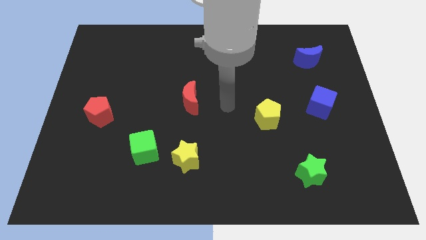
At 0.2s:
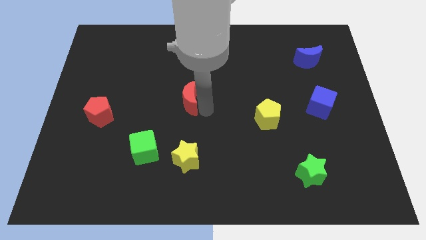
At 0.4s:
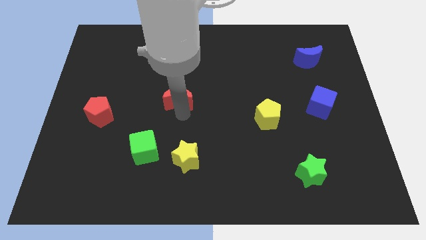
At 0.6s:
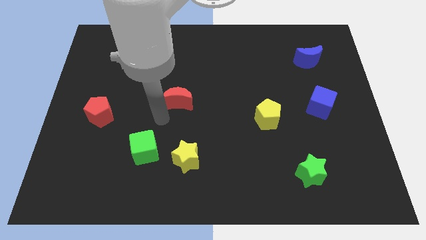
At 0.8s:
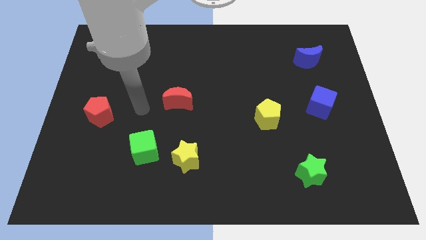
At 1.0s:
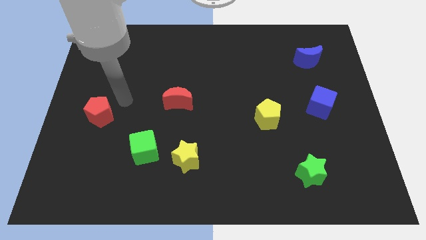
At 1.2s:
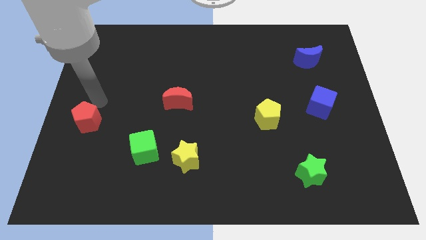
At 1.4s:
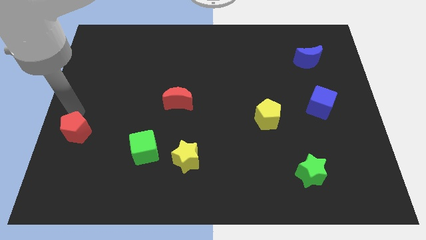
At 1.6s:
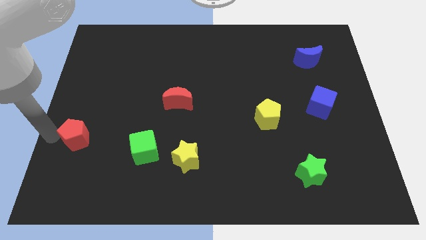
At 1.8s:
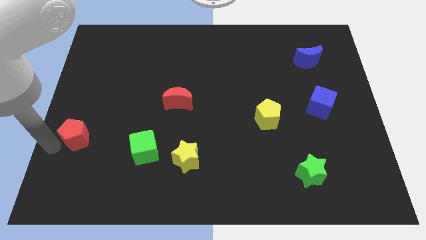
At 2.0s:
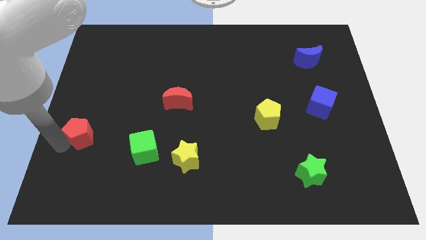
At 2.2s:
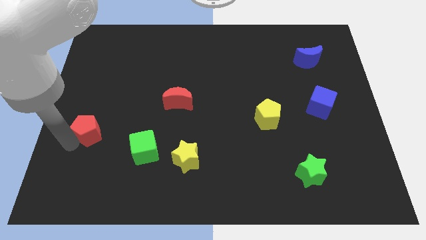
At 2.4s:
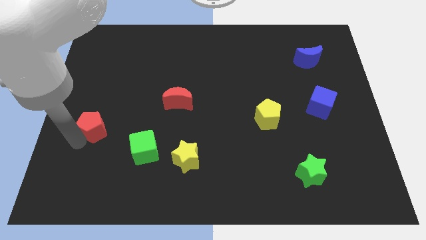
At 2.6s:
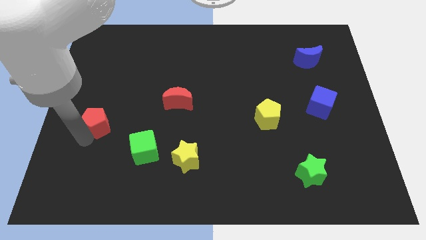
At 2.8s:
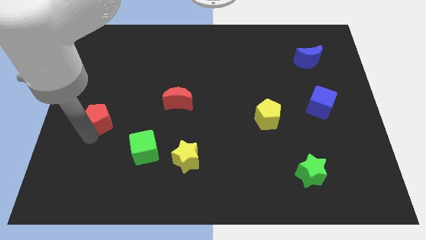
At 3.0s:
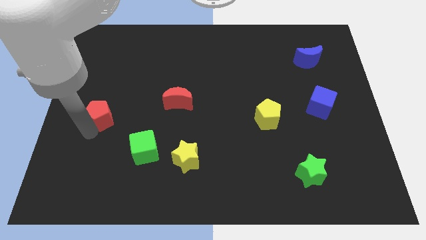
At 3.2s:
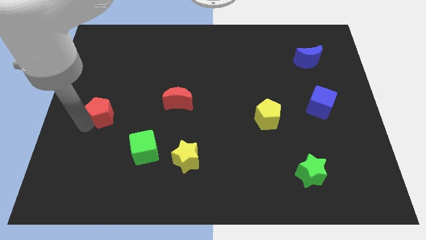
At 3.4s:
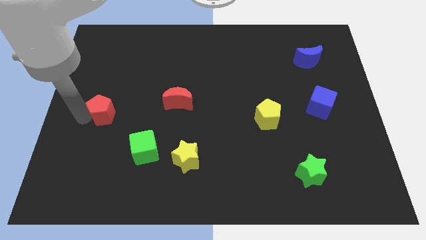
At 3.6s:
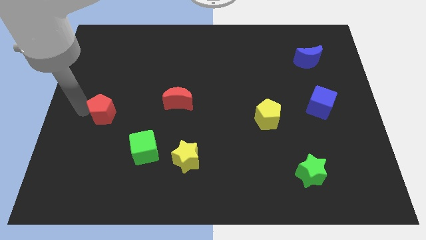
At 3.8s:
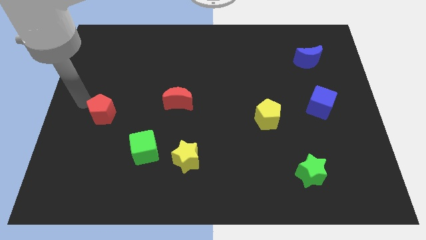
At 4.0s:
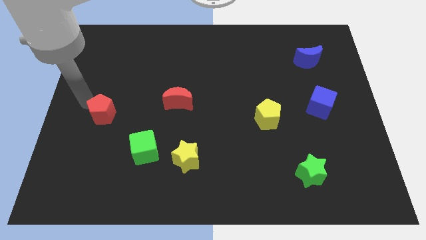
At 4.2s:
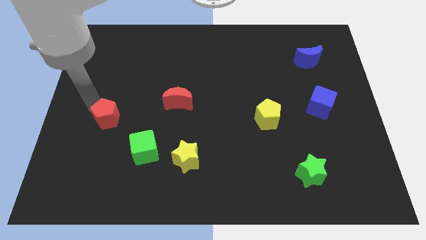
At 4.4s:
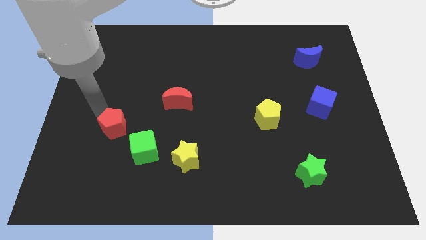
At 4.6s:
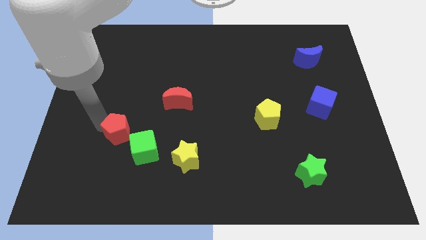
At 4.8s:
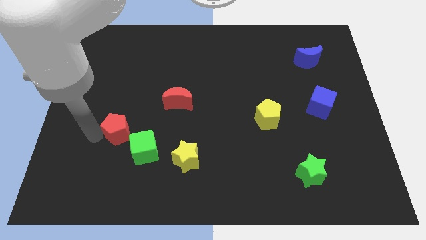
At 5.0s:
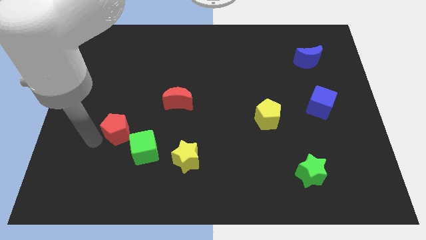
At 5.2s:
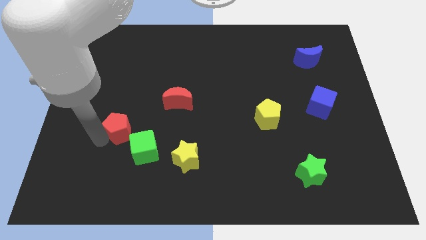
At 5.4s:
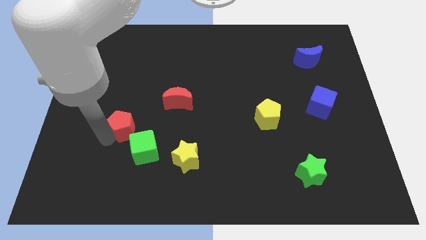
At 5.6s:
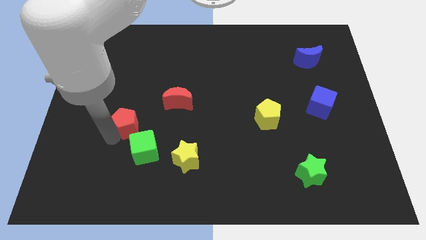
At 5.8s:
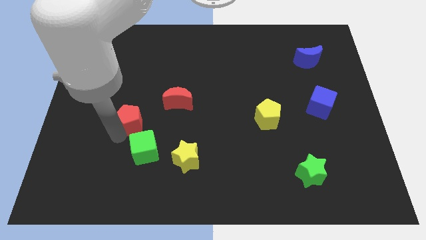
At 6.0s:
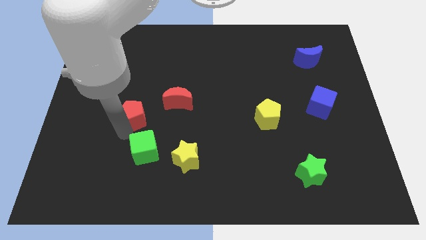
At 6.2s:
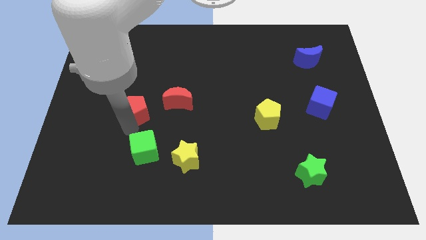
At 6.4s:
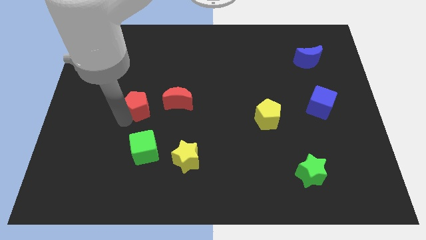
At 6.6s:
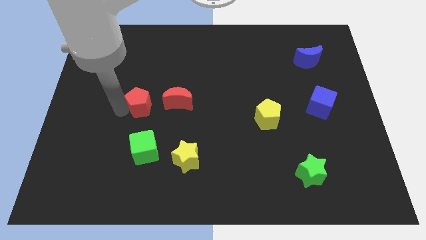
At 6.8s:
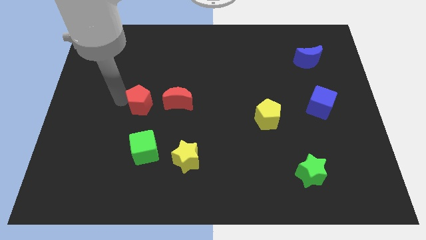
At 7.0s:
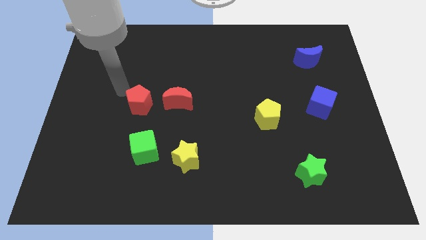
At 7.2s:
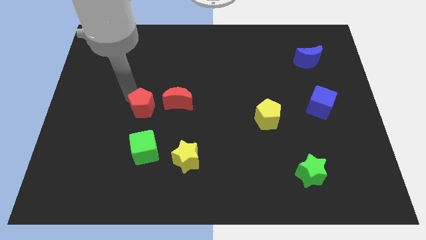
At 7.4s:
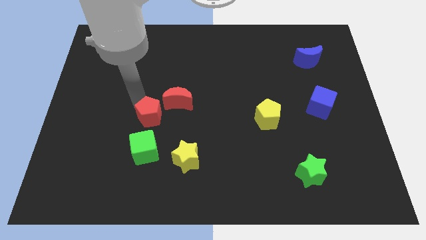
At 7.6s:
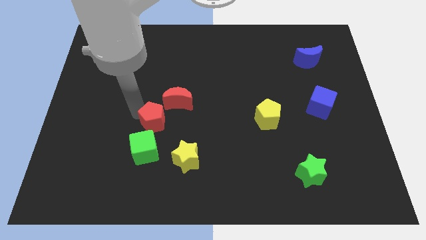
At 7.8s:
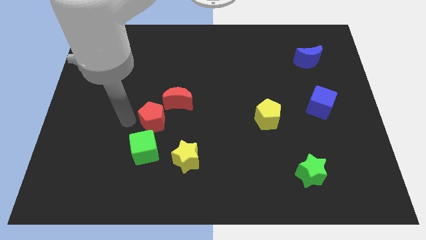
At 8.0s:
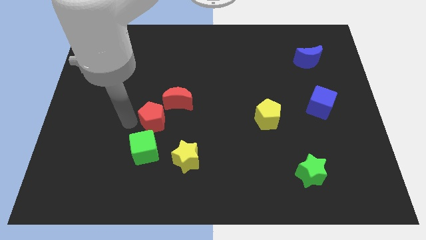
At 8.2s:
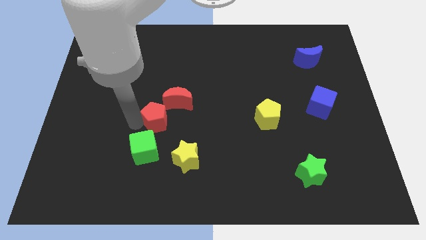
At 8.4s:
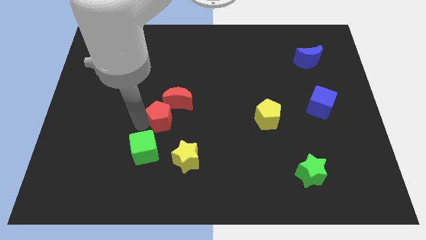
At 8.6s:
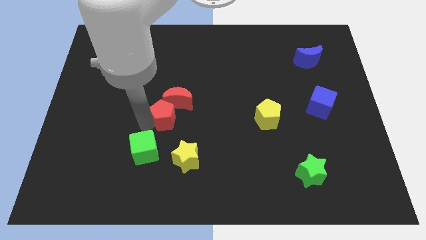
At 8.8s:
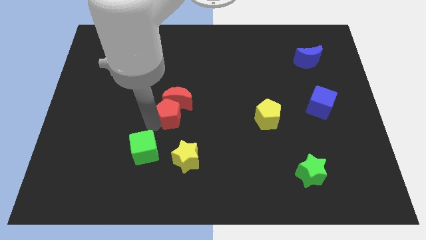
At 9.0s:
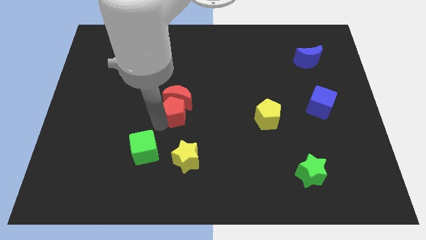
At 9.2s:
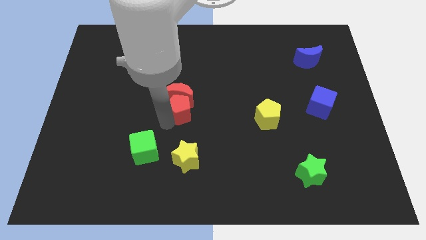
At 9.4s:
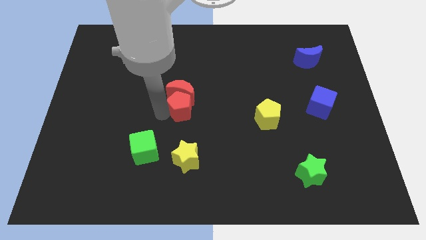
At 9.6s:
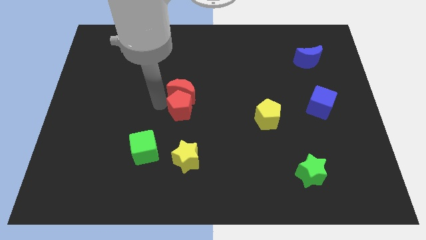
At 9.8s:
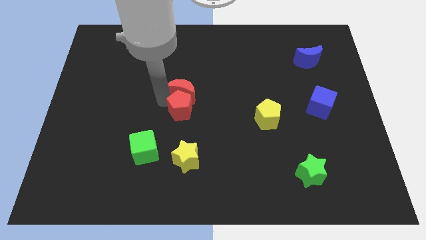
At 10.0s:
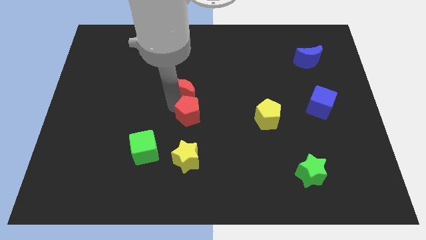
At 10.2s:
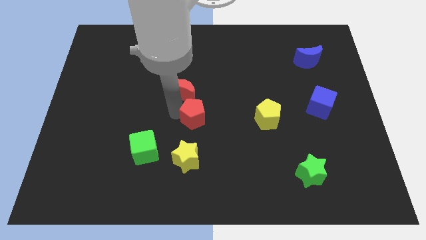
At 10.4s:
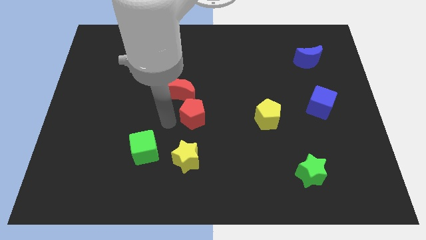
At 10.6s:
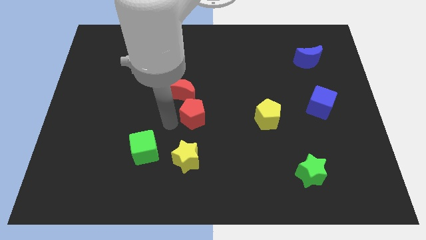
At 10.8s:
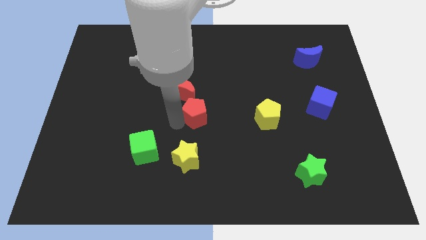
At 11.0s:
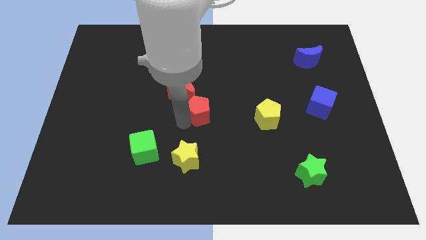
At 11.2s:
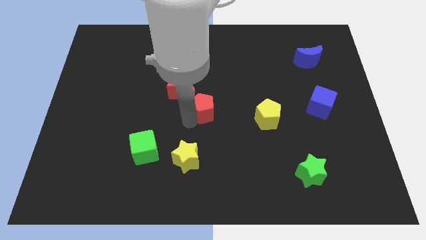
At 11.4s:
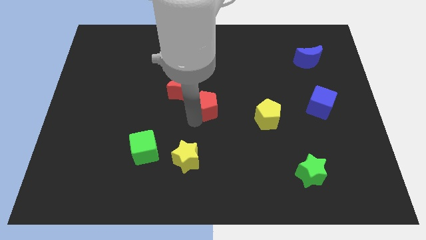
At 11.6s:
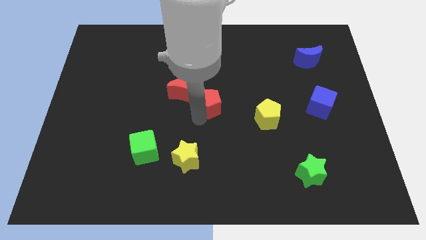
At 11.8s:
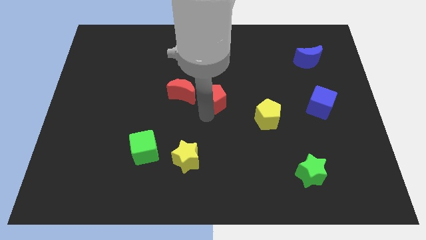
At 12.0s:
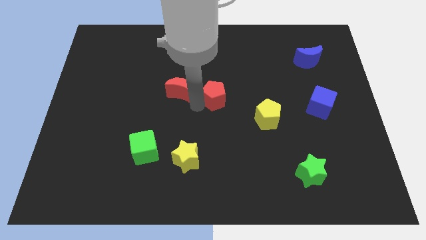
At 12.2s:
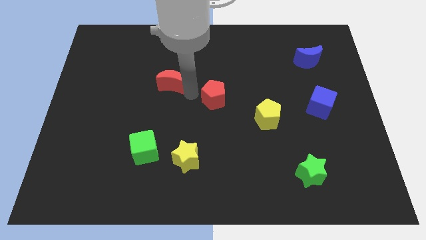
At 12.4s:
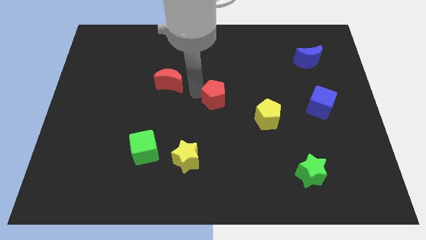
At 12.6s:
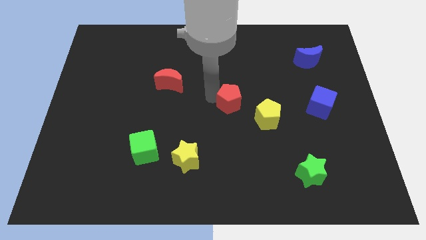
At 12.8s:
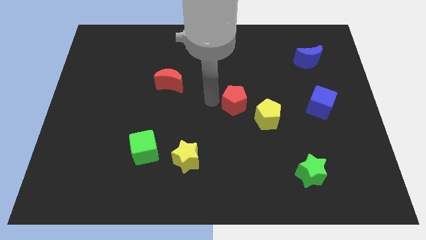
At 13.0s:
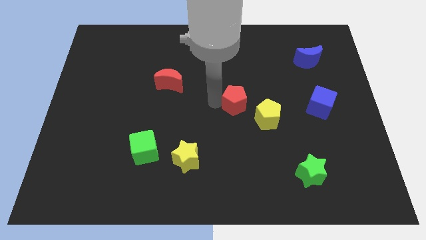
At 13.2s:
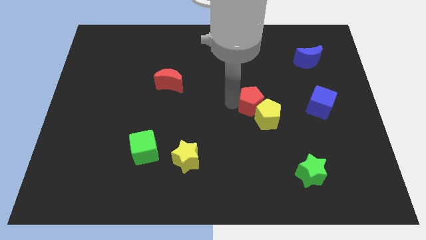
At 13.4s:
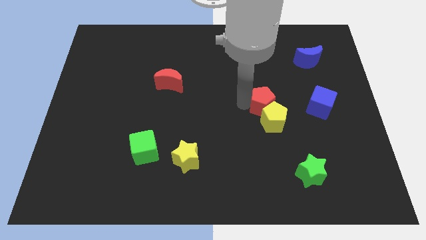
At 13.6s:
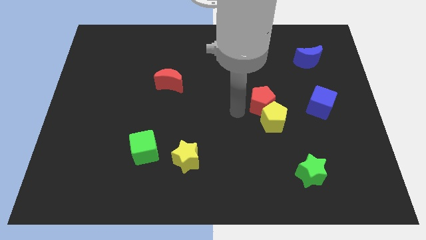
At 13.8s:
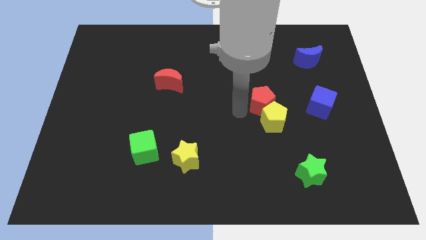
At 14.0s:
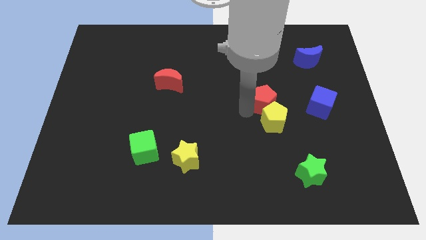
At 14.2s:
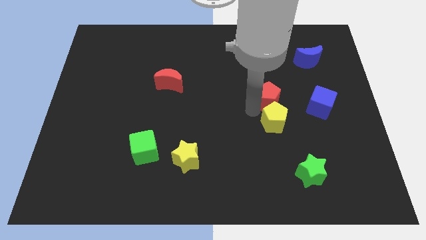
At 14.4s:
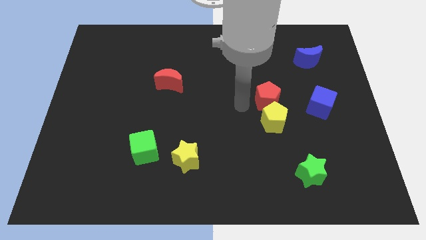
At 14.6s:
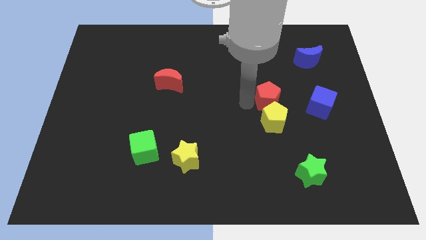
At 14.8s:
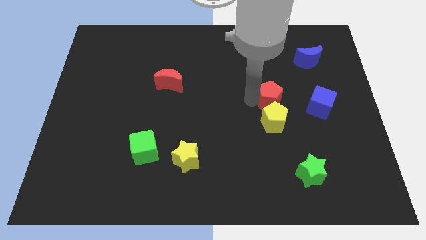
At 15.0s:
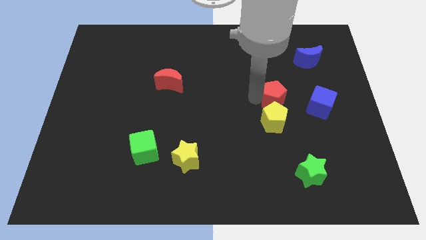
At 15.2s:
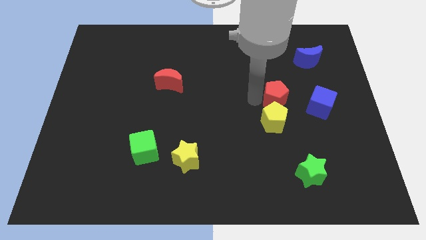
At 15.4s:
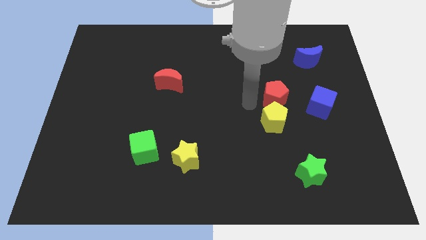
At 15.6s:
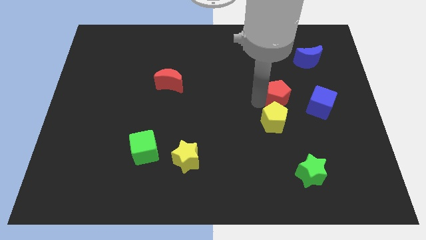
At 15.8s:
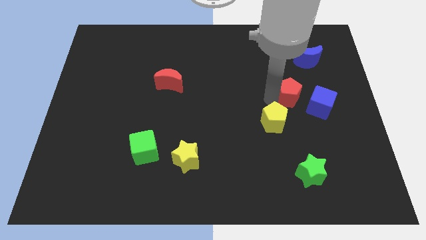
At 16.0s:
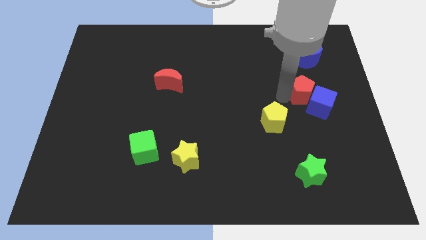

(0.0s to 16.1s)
push the red pentagon below the blue moon

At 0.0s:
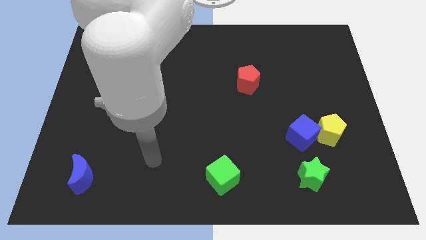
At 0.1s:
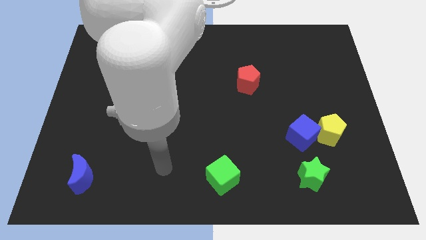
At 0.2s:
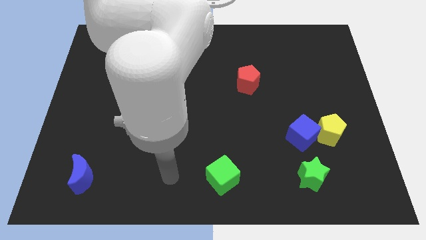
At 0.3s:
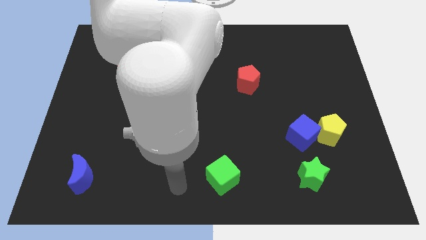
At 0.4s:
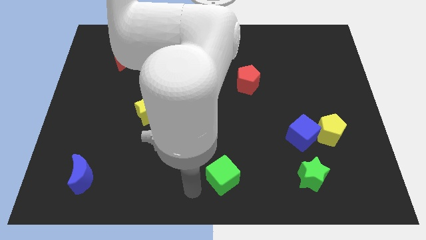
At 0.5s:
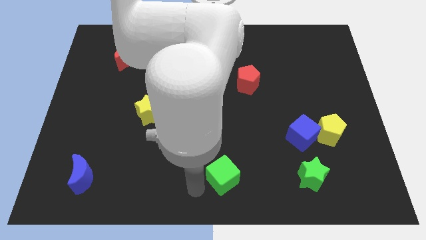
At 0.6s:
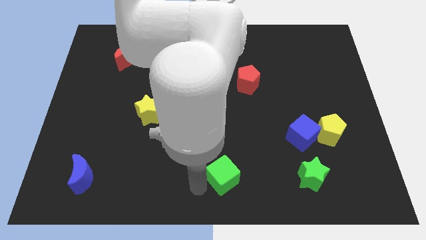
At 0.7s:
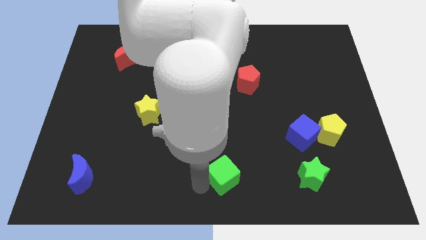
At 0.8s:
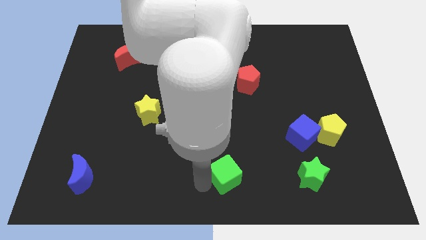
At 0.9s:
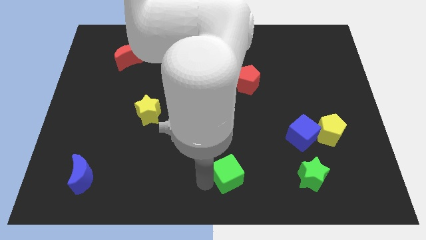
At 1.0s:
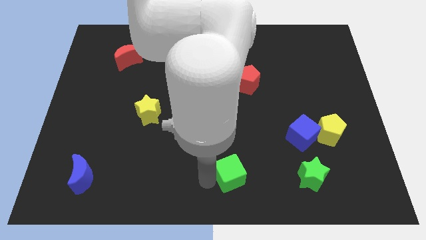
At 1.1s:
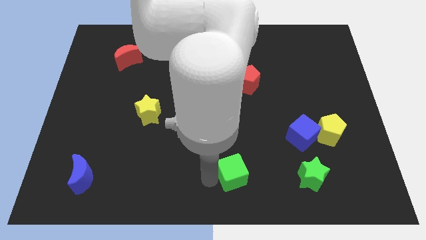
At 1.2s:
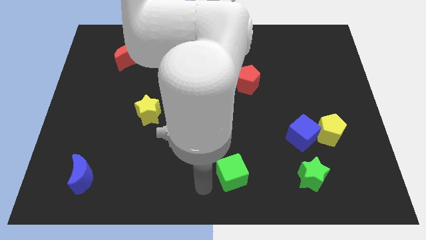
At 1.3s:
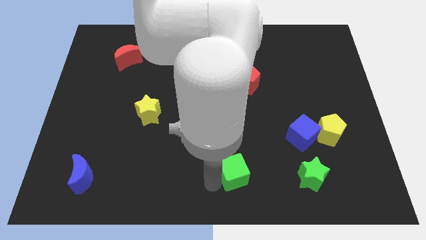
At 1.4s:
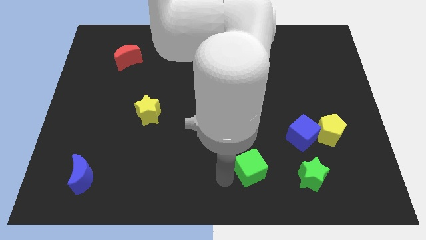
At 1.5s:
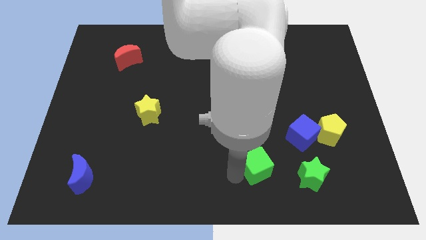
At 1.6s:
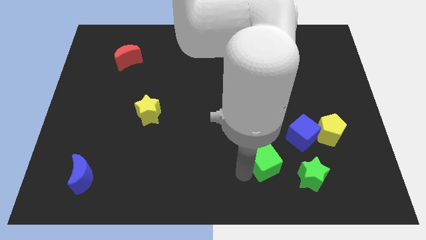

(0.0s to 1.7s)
move the green cube diagonally up and to the left of the green star
